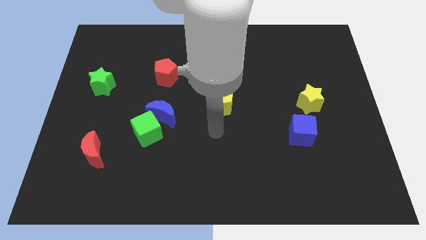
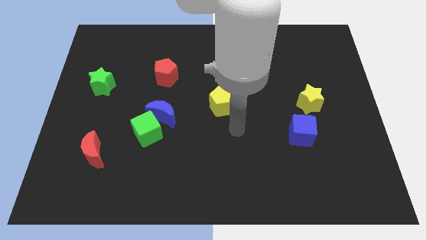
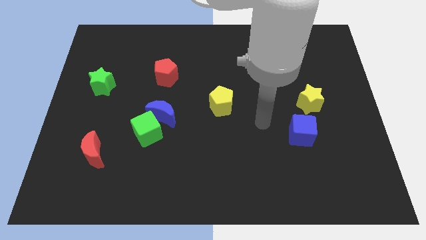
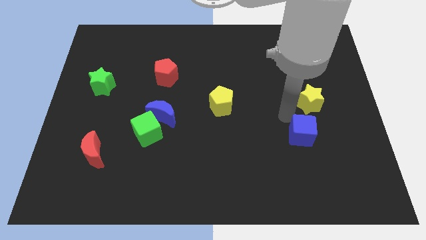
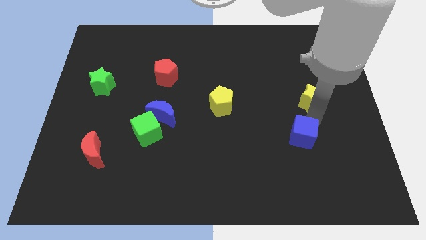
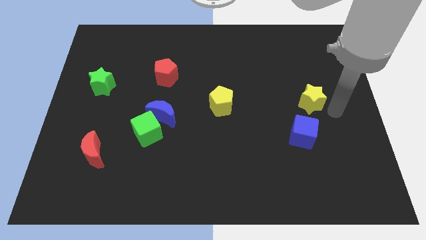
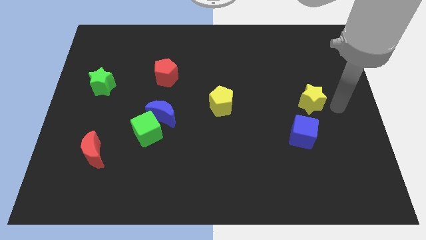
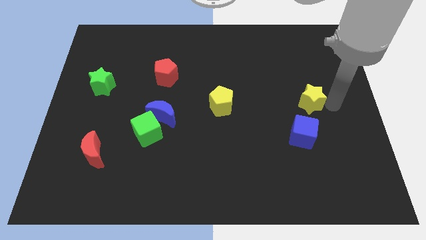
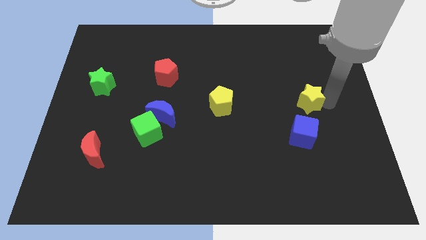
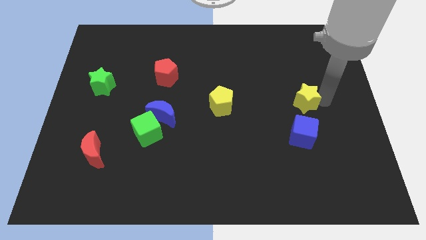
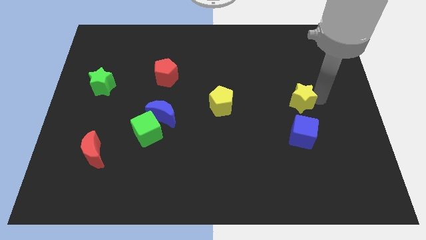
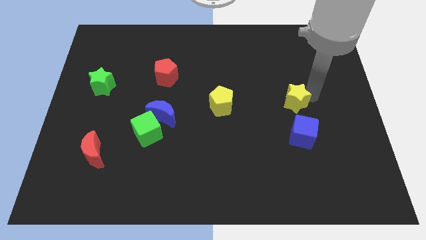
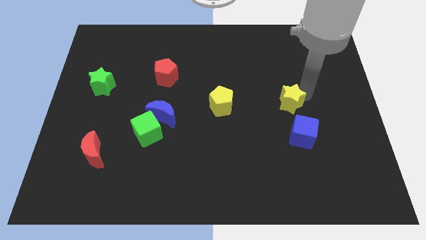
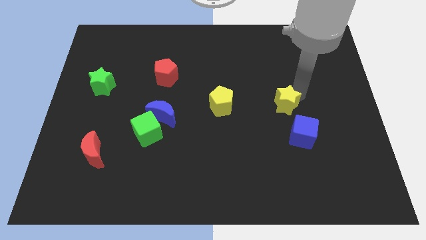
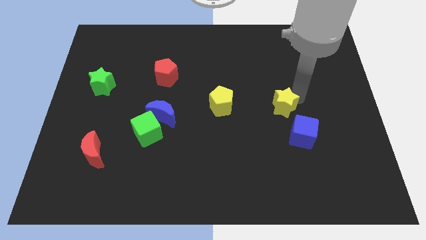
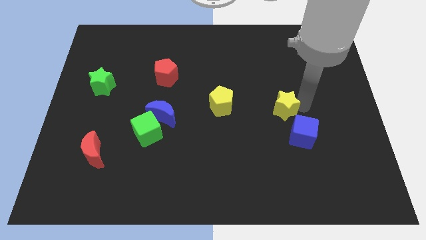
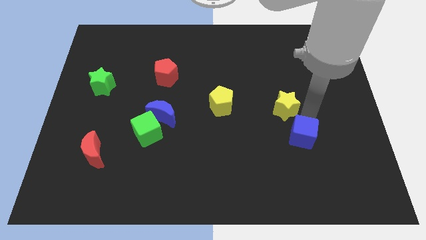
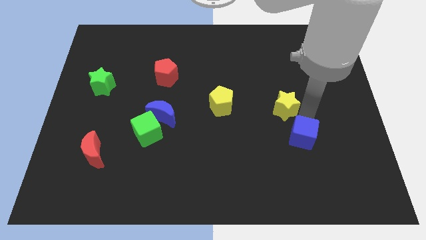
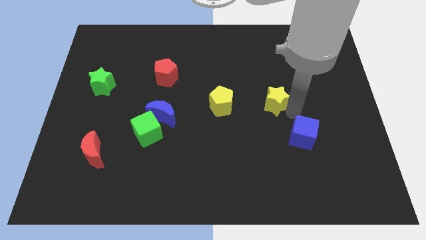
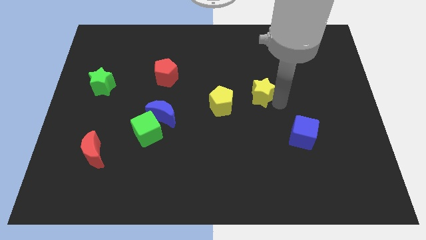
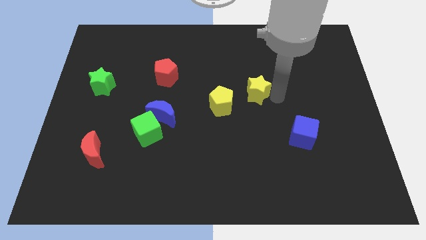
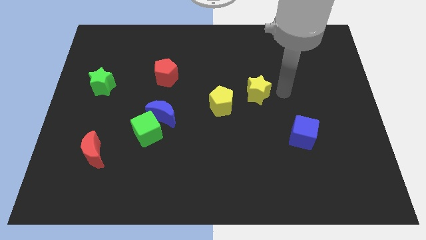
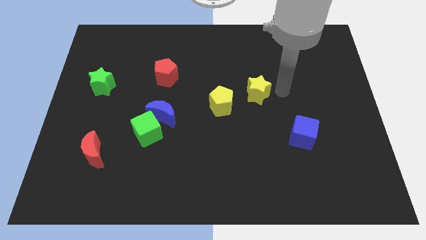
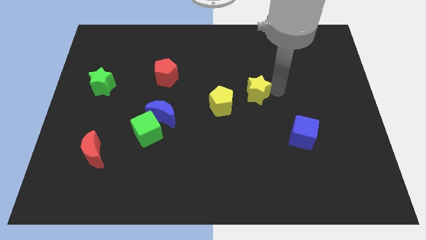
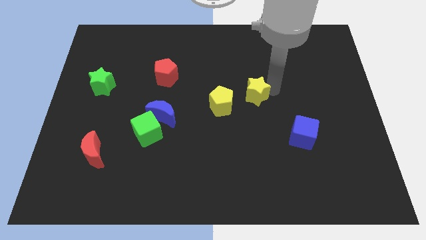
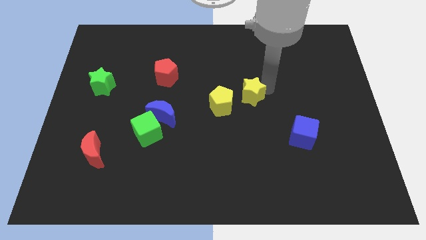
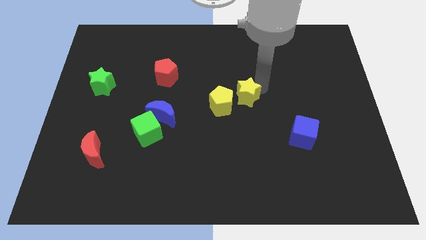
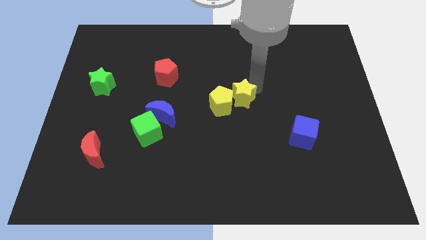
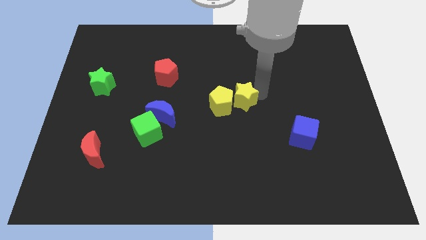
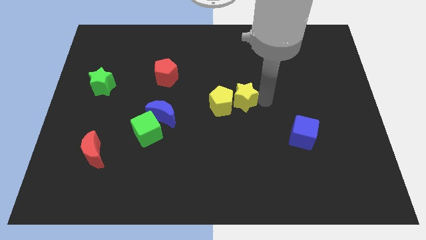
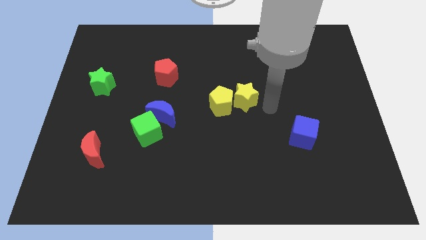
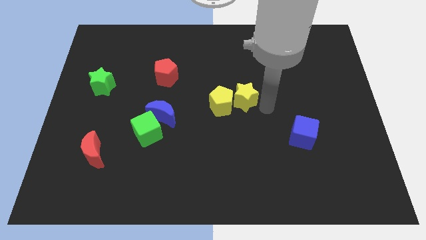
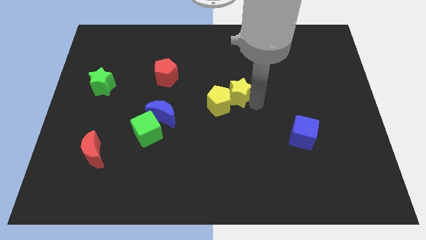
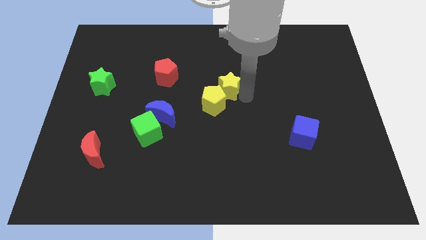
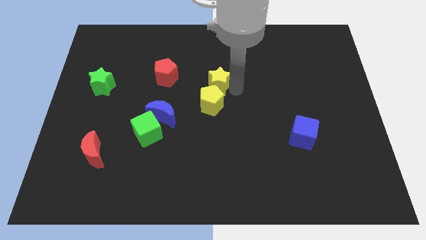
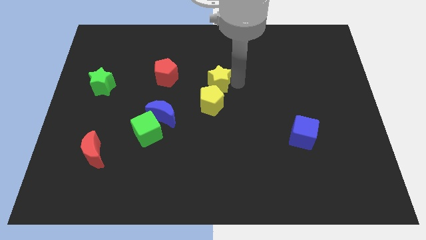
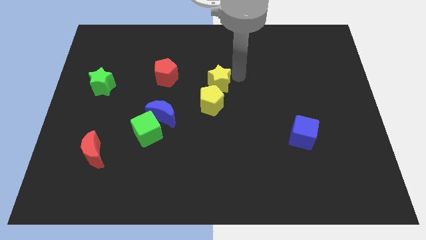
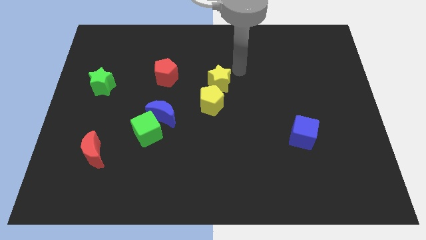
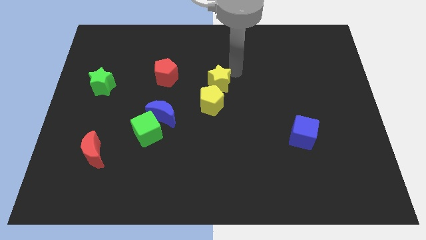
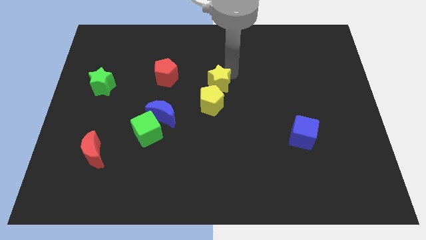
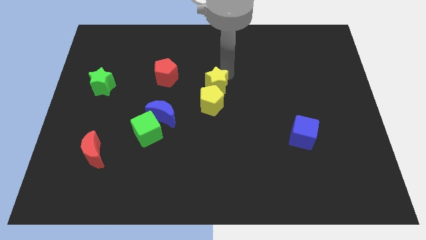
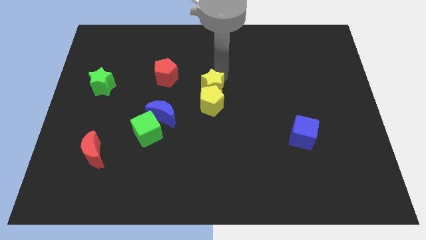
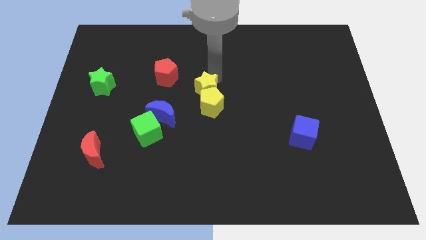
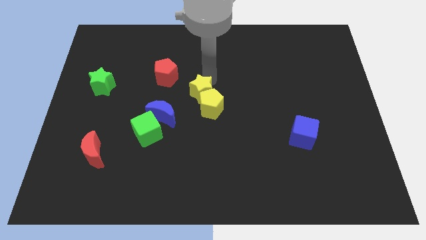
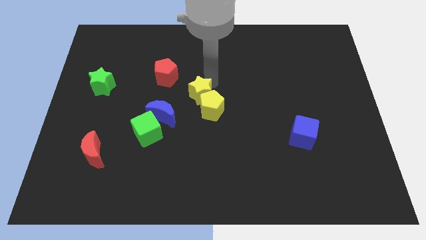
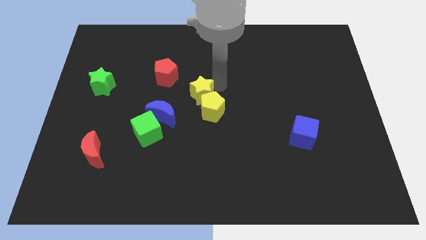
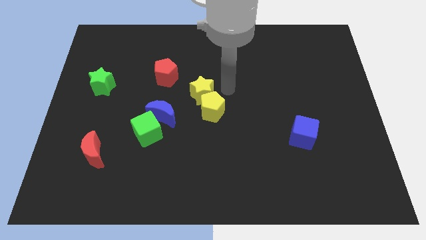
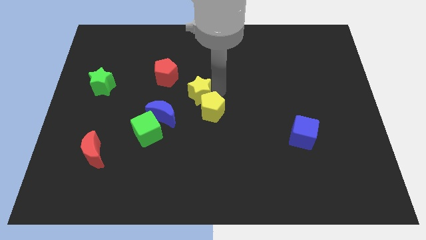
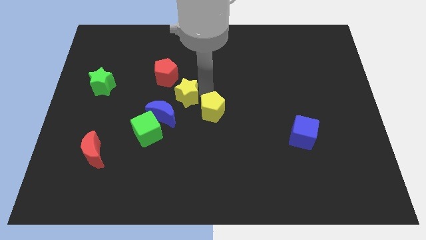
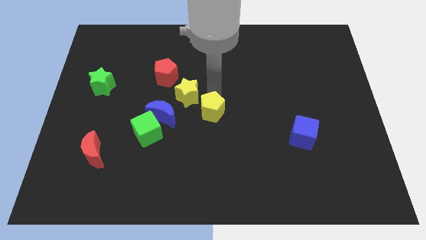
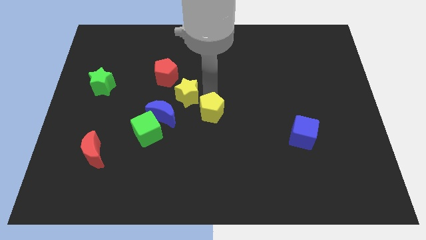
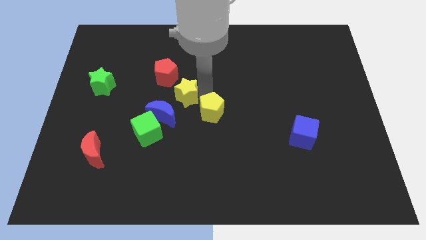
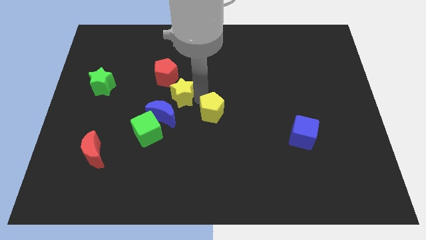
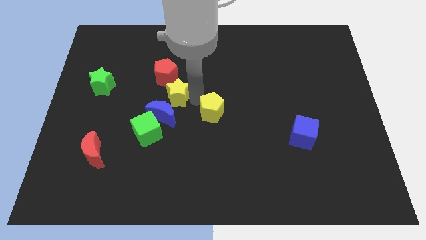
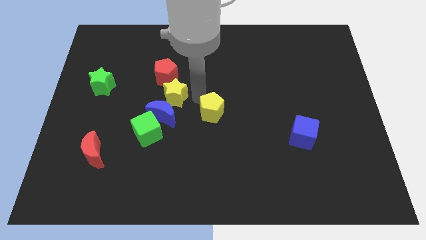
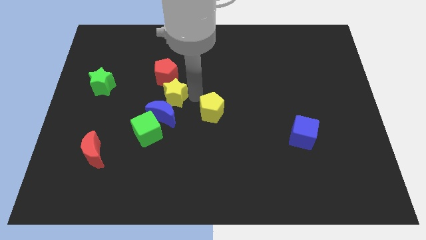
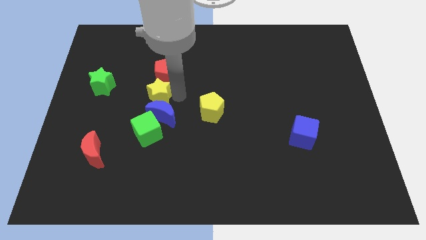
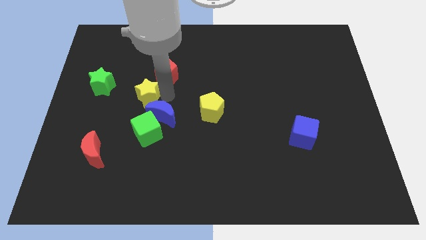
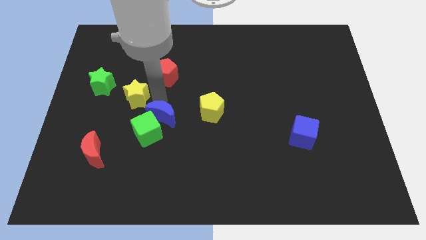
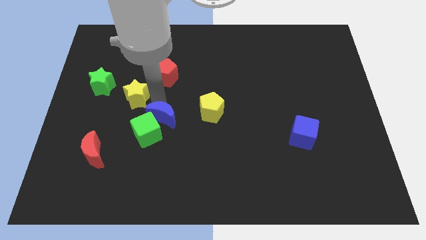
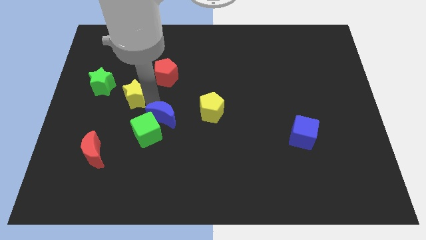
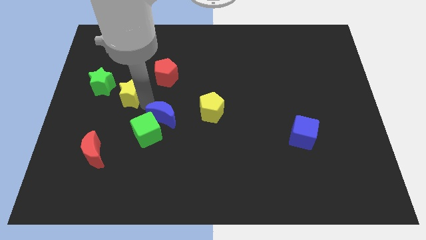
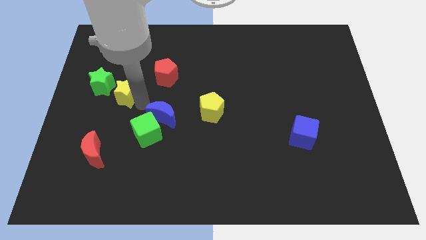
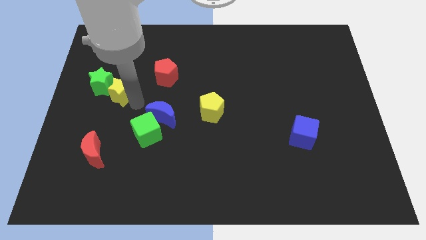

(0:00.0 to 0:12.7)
move the yellow star close to the green star
